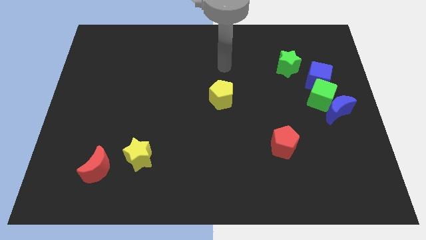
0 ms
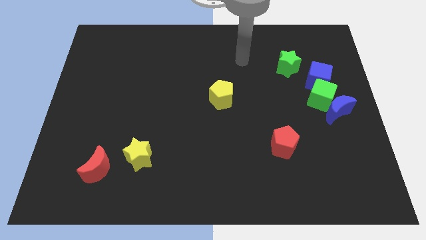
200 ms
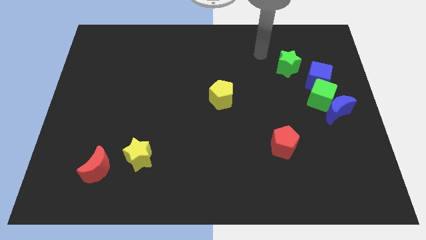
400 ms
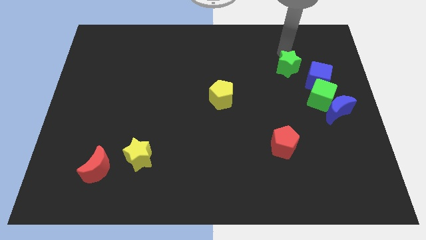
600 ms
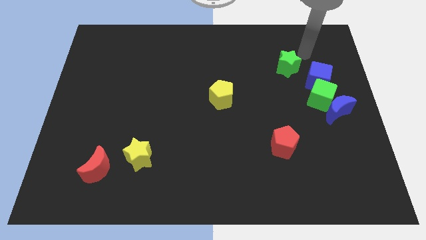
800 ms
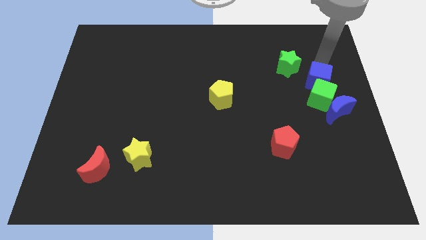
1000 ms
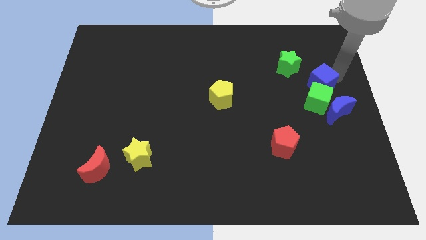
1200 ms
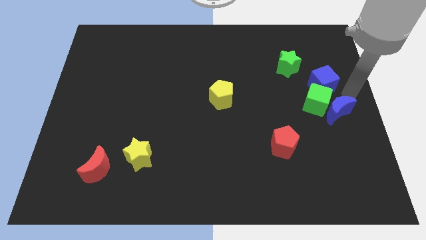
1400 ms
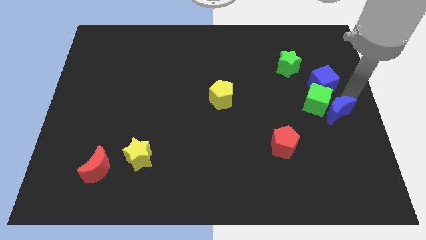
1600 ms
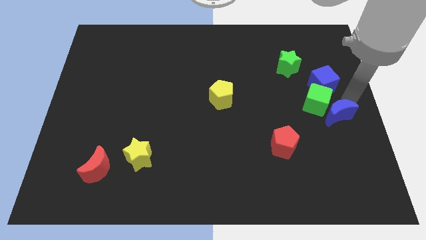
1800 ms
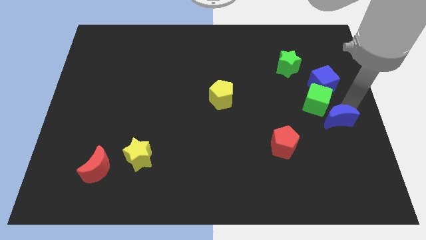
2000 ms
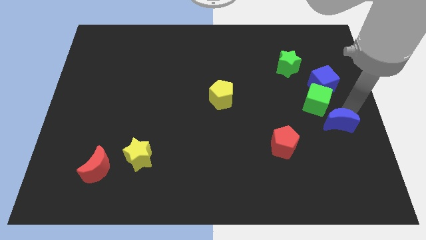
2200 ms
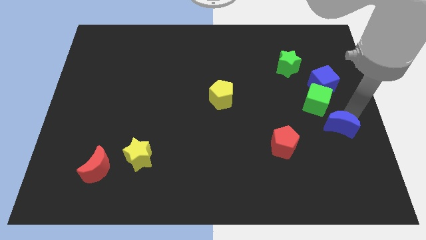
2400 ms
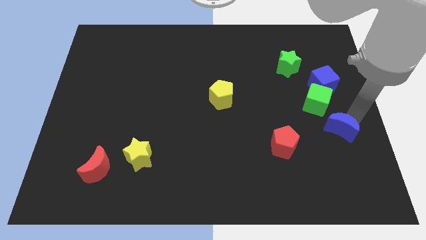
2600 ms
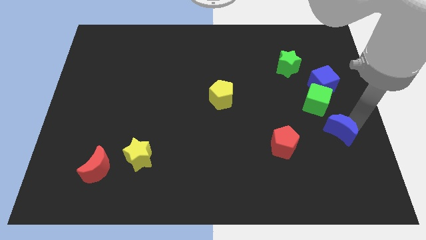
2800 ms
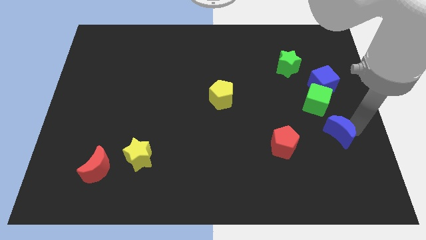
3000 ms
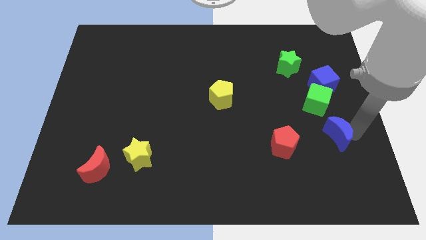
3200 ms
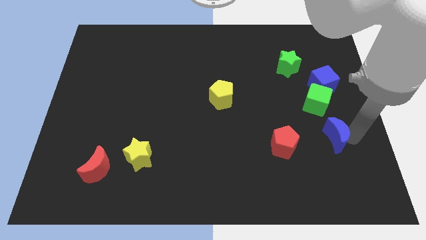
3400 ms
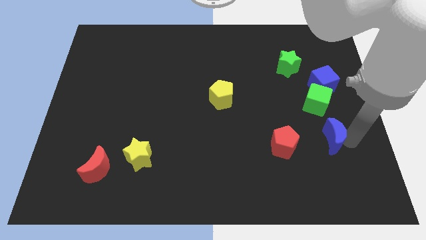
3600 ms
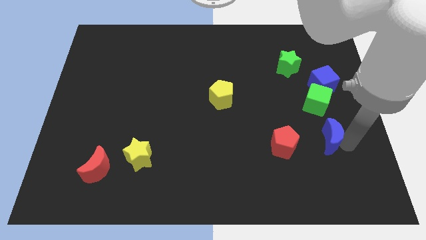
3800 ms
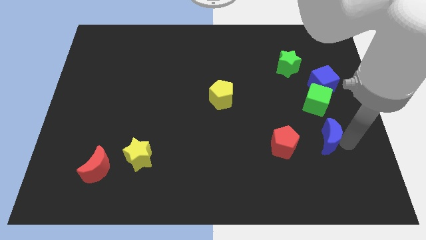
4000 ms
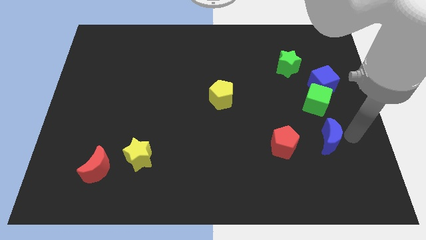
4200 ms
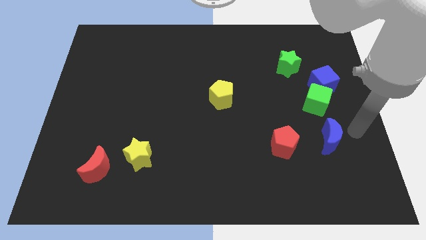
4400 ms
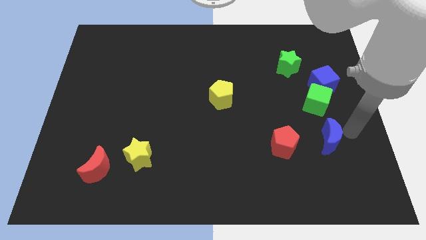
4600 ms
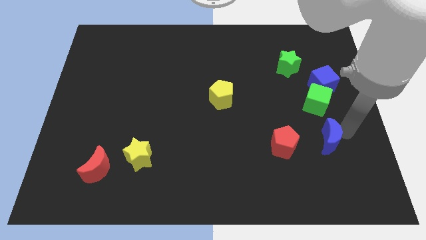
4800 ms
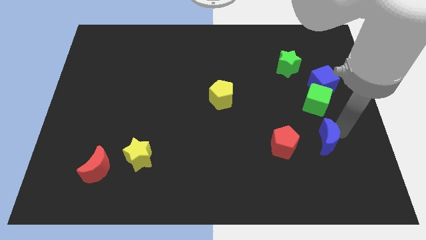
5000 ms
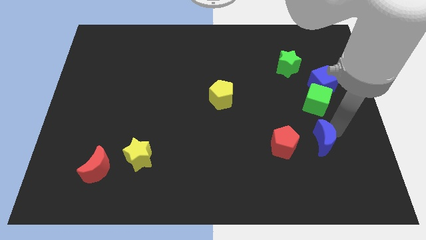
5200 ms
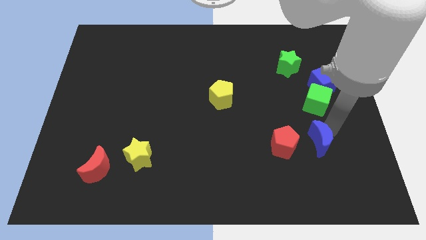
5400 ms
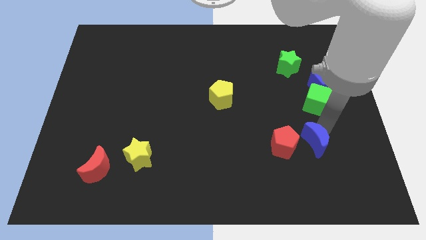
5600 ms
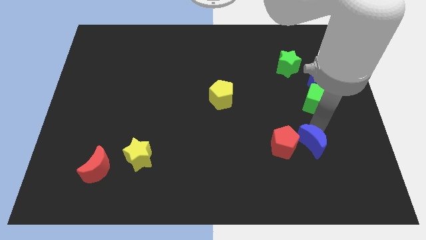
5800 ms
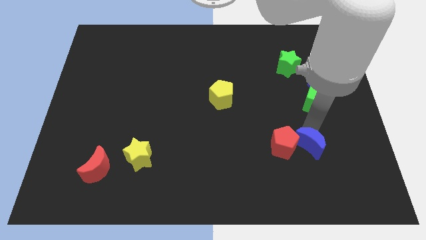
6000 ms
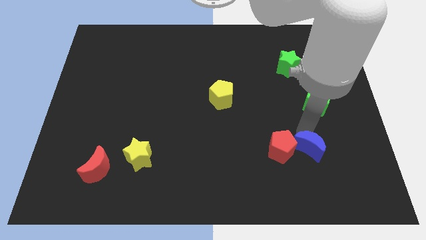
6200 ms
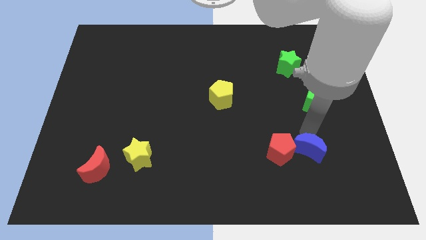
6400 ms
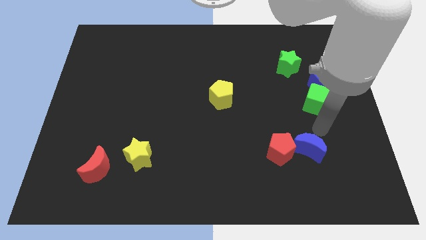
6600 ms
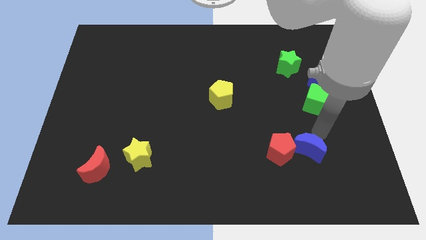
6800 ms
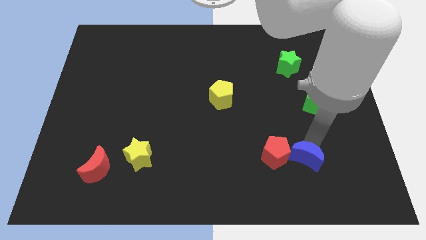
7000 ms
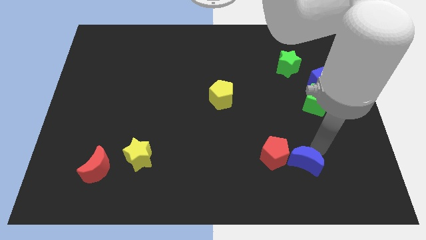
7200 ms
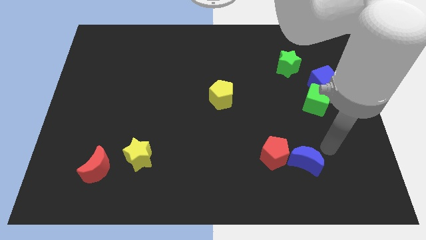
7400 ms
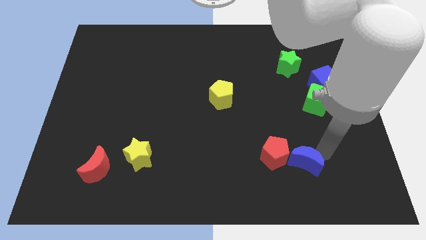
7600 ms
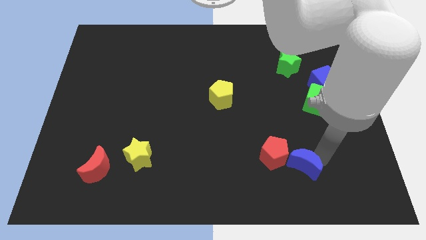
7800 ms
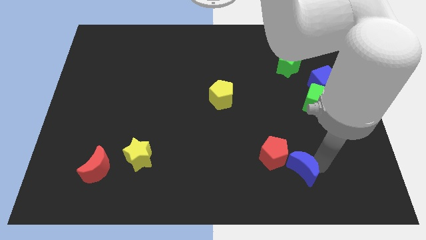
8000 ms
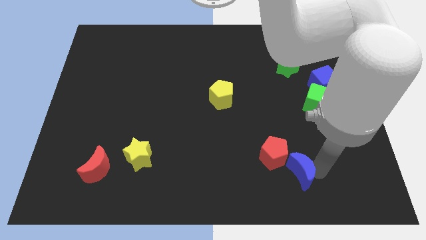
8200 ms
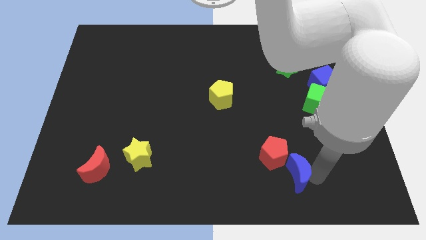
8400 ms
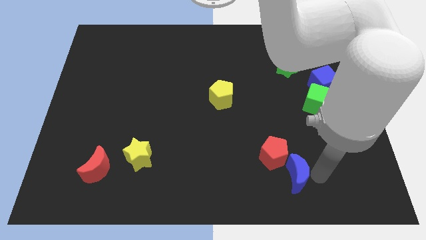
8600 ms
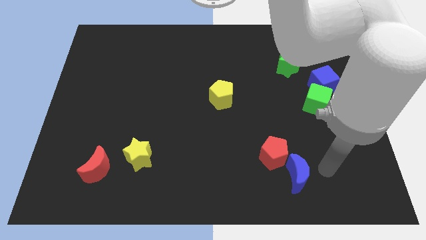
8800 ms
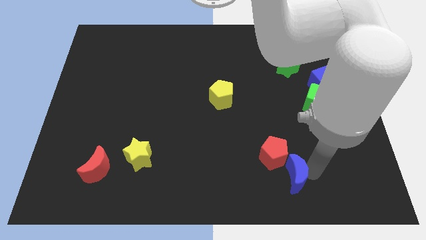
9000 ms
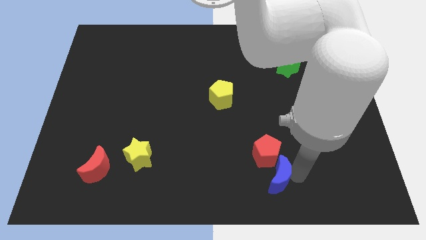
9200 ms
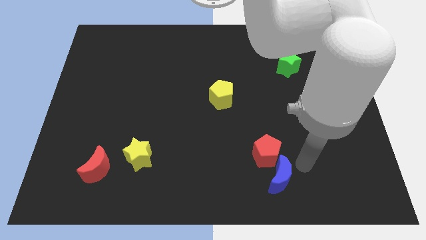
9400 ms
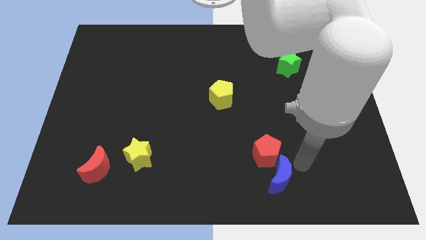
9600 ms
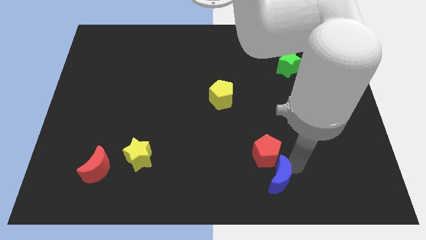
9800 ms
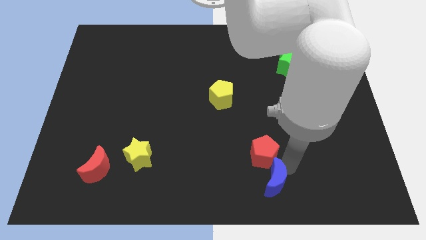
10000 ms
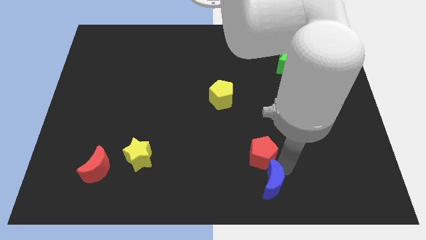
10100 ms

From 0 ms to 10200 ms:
move the blue moon to the bottom side

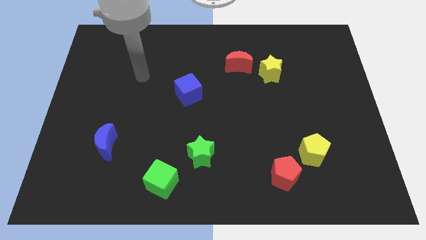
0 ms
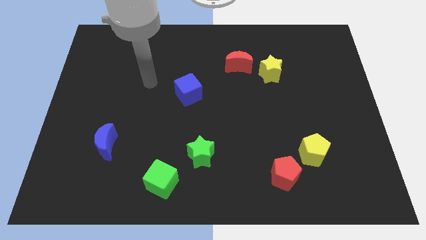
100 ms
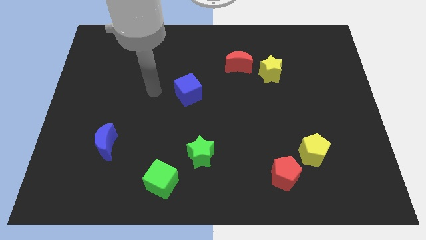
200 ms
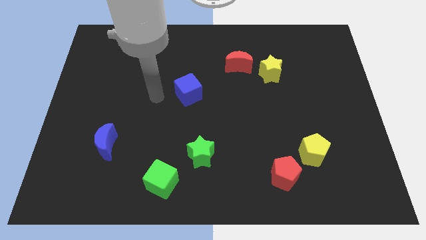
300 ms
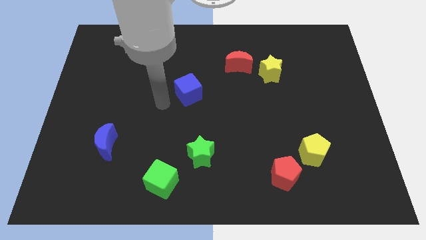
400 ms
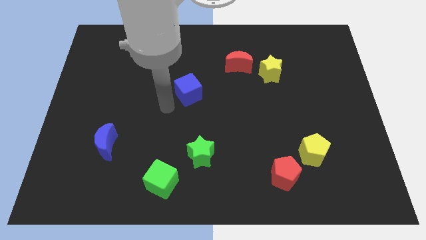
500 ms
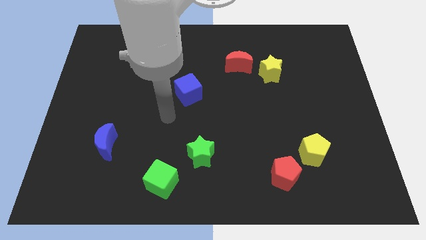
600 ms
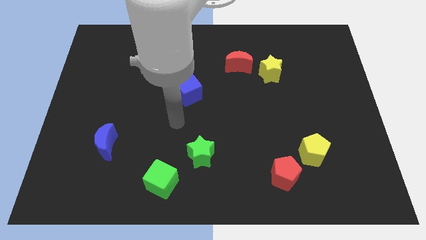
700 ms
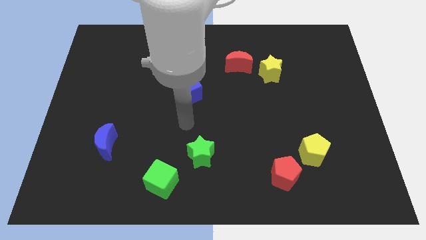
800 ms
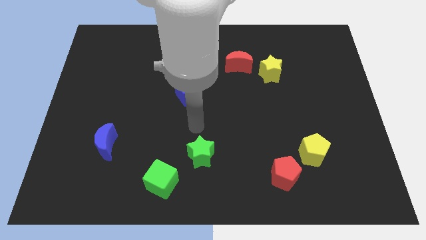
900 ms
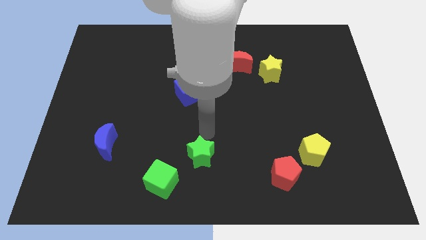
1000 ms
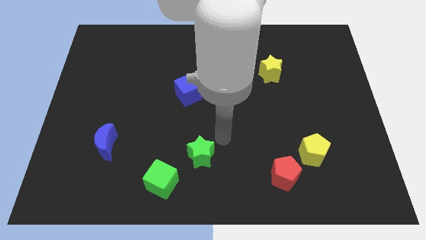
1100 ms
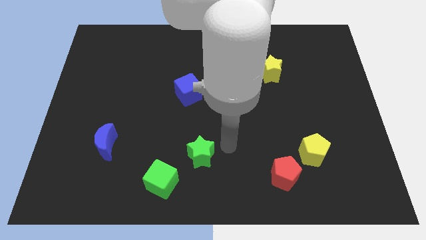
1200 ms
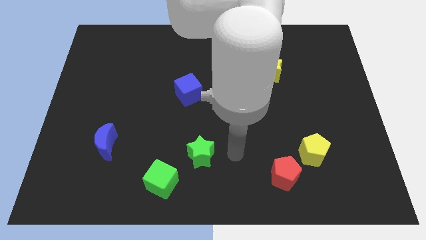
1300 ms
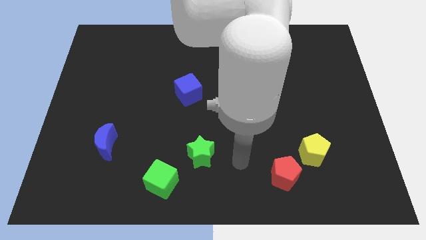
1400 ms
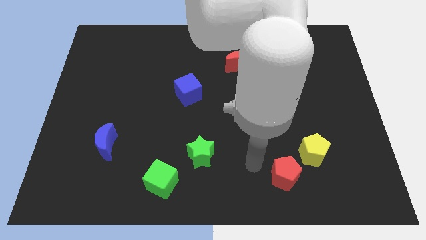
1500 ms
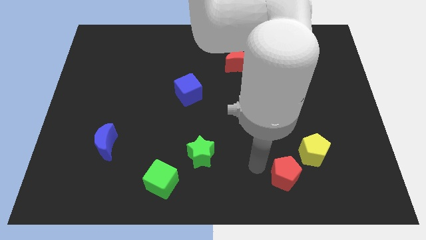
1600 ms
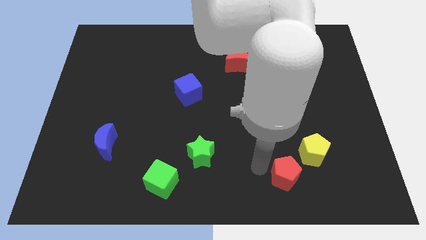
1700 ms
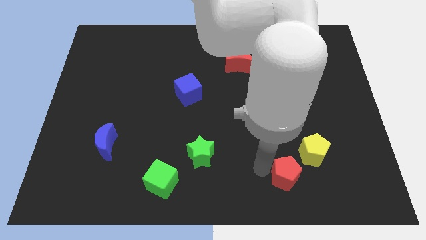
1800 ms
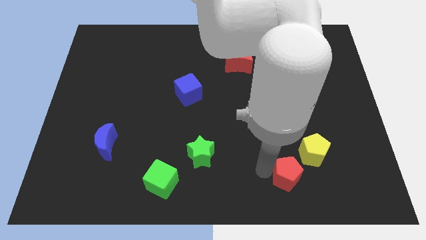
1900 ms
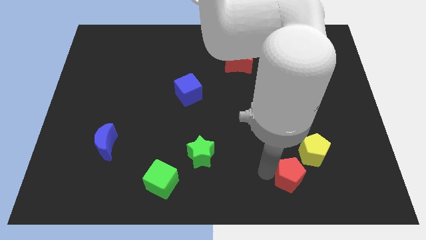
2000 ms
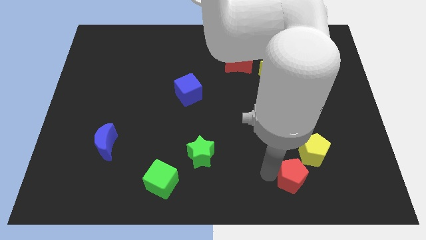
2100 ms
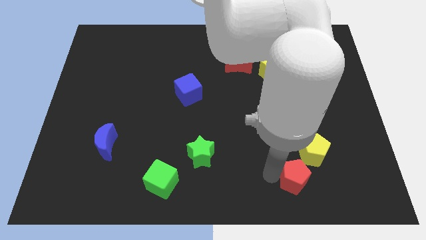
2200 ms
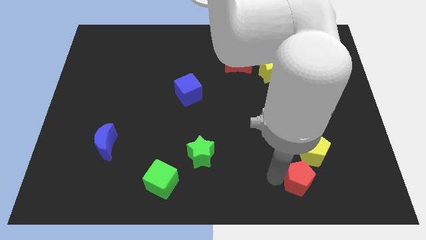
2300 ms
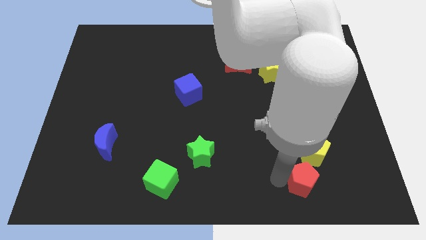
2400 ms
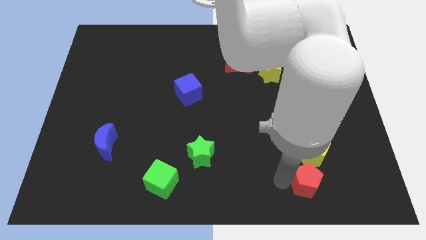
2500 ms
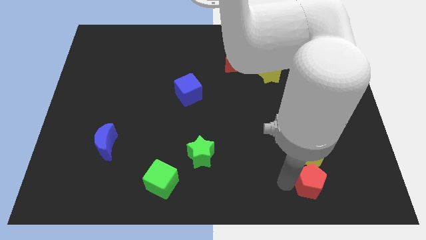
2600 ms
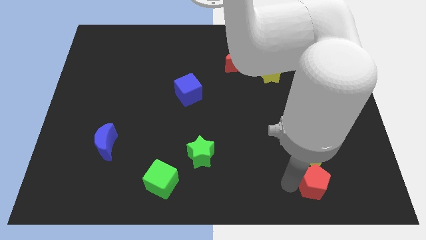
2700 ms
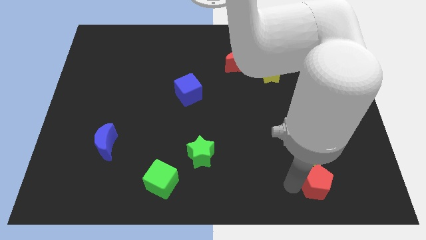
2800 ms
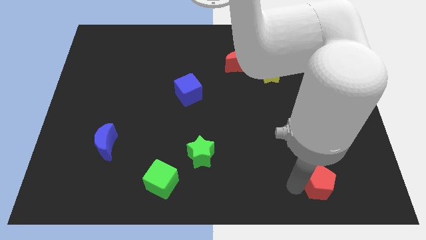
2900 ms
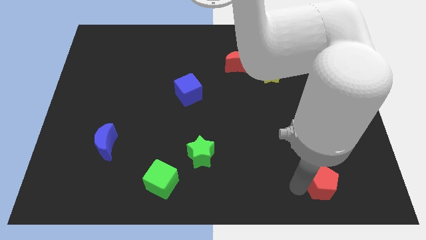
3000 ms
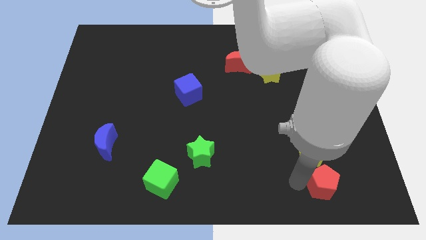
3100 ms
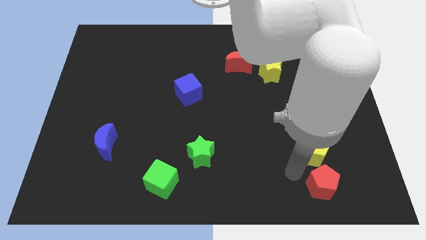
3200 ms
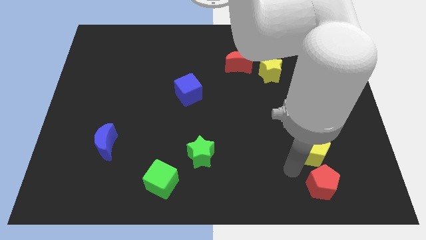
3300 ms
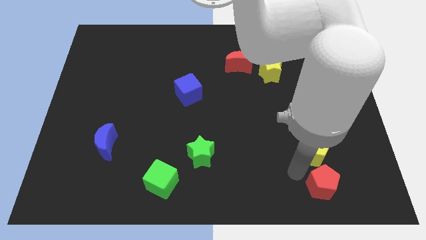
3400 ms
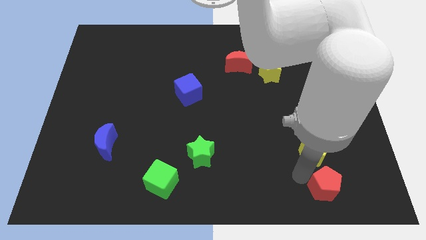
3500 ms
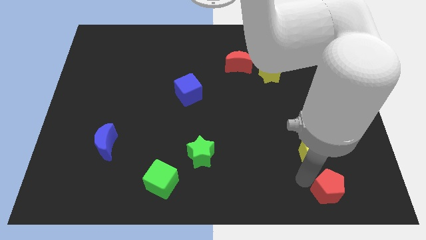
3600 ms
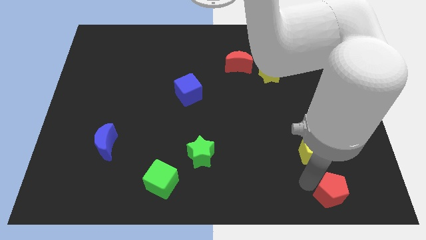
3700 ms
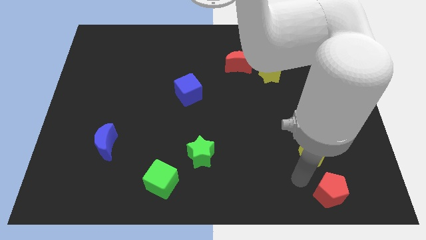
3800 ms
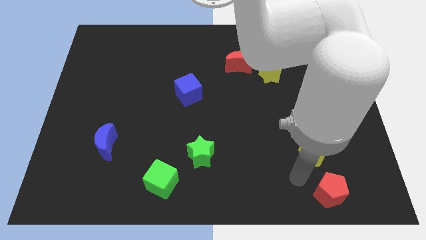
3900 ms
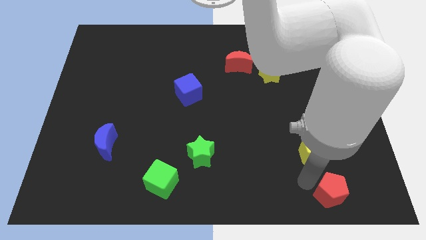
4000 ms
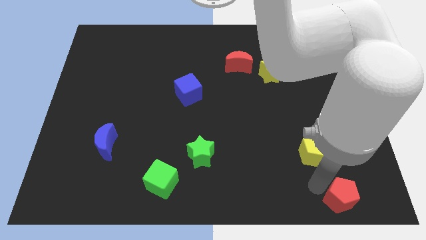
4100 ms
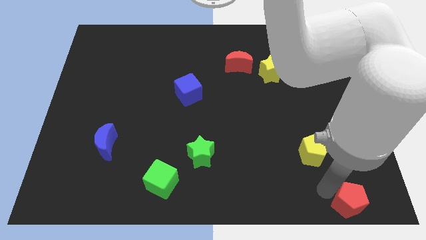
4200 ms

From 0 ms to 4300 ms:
move the red pentagon to the bottom right
